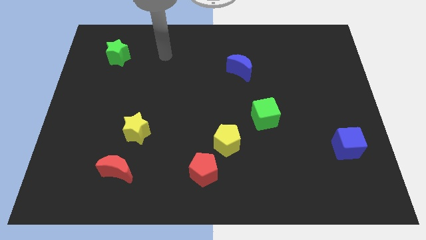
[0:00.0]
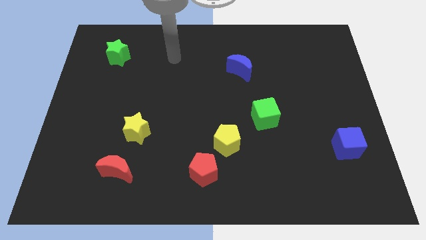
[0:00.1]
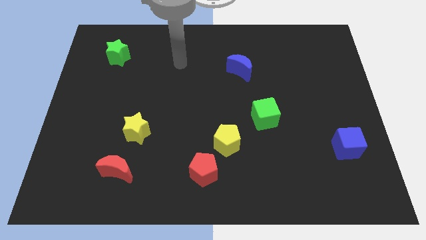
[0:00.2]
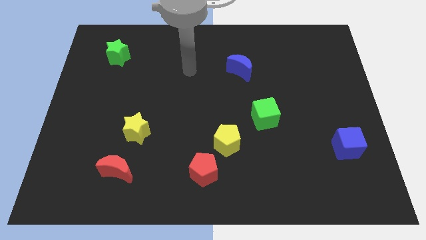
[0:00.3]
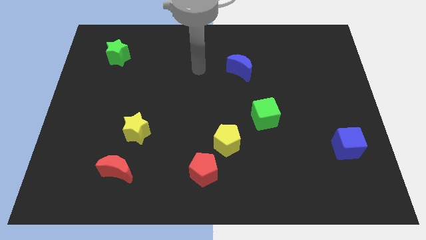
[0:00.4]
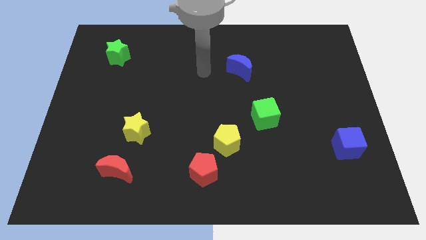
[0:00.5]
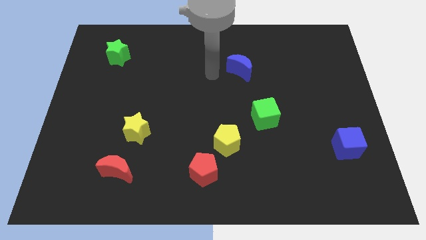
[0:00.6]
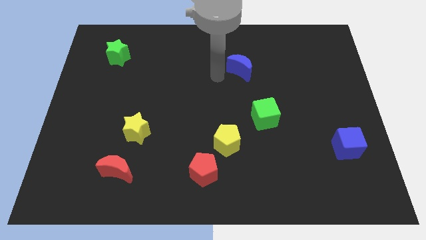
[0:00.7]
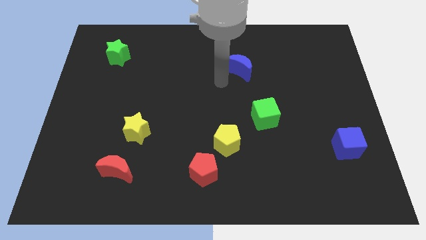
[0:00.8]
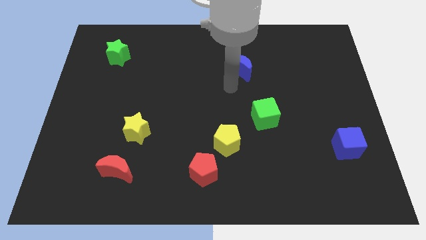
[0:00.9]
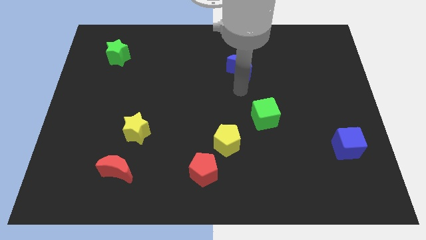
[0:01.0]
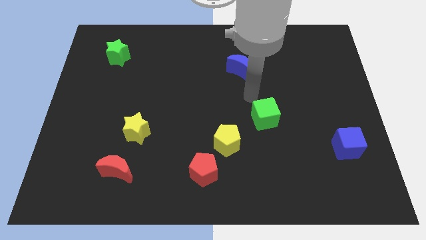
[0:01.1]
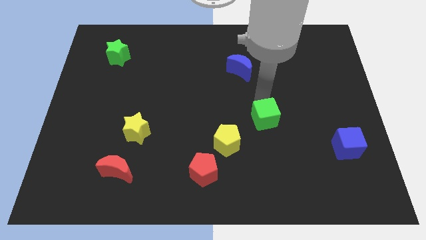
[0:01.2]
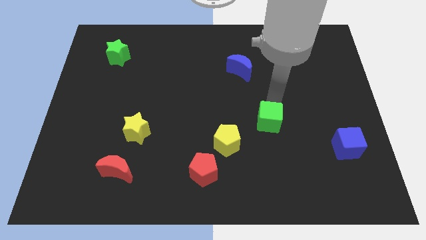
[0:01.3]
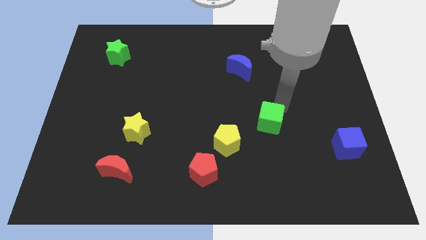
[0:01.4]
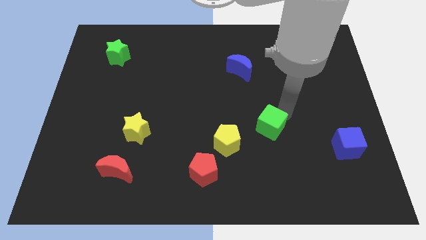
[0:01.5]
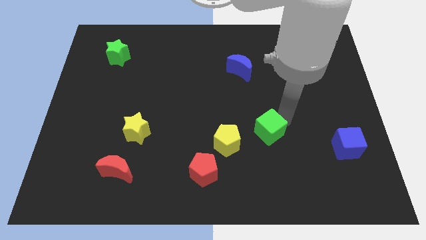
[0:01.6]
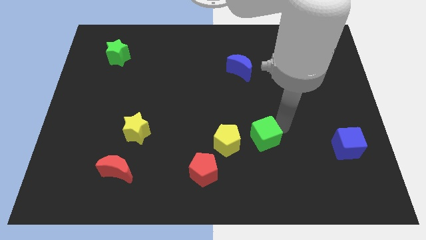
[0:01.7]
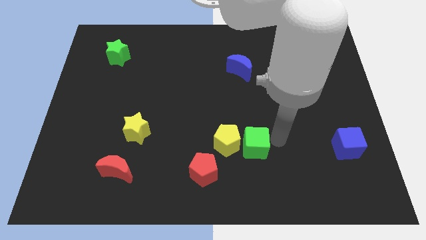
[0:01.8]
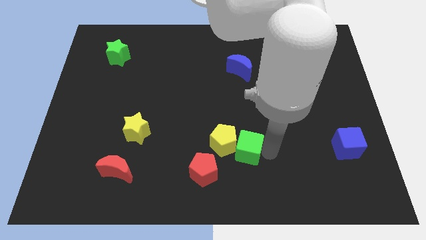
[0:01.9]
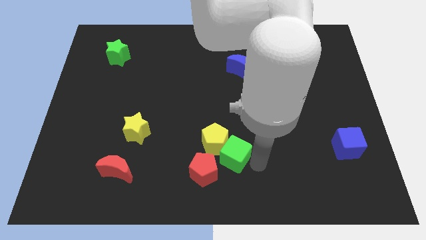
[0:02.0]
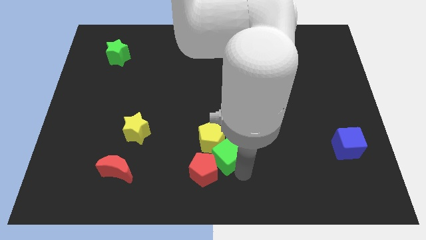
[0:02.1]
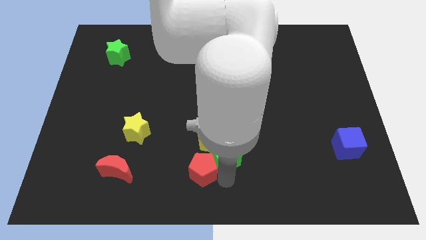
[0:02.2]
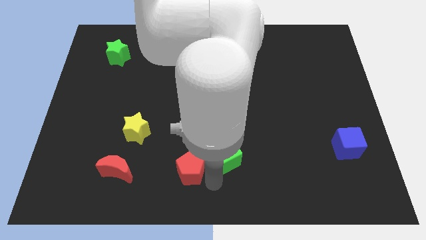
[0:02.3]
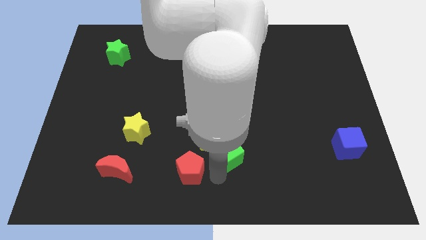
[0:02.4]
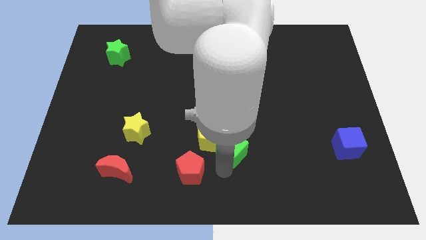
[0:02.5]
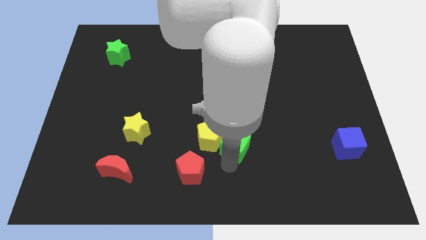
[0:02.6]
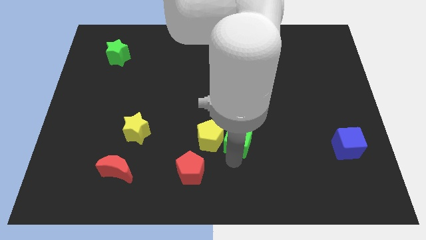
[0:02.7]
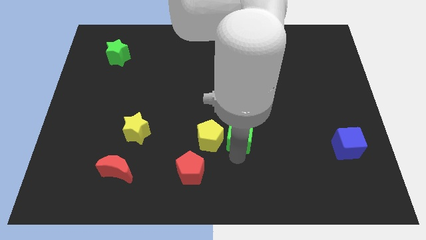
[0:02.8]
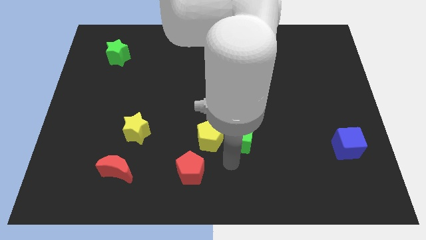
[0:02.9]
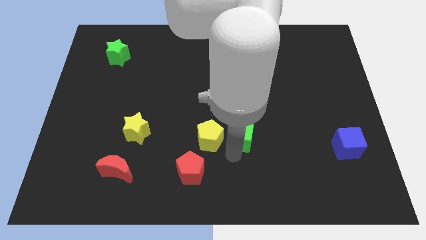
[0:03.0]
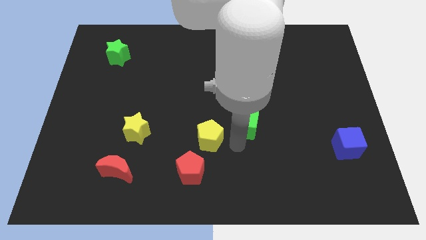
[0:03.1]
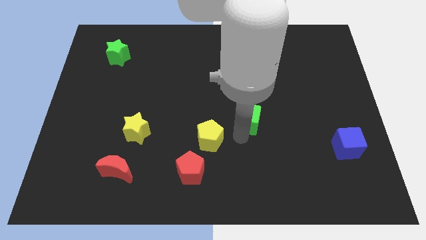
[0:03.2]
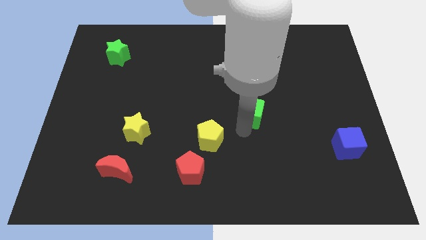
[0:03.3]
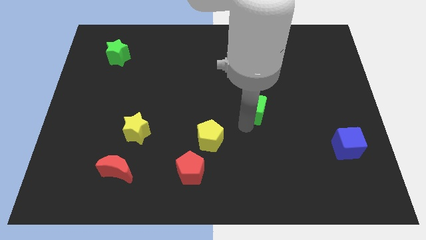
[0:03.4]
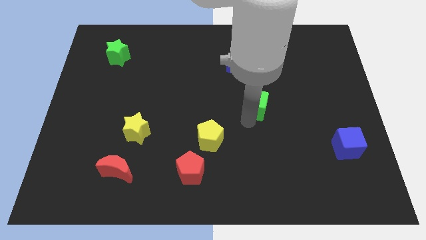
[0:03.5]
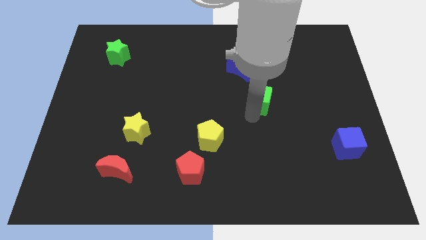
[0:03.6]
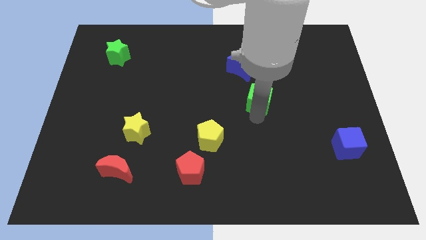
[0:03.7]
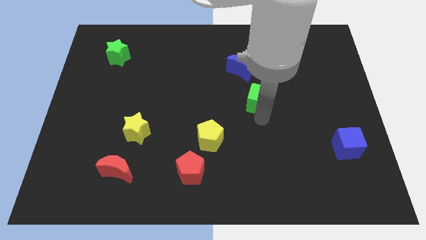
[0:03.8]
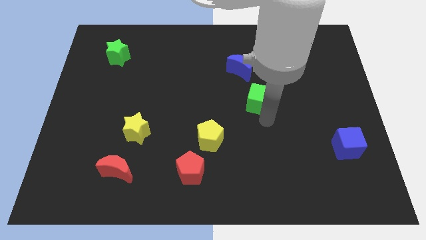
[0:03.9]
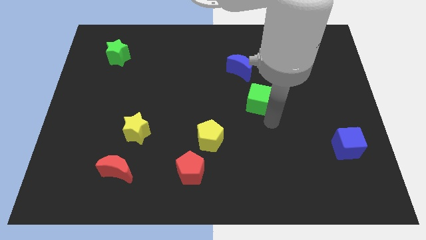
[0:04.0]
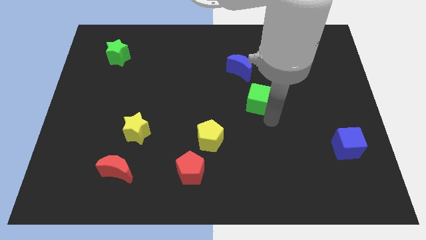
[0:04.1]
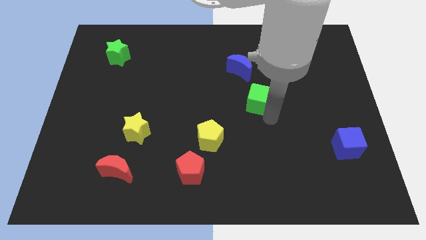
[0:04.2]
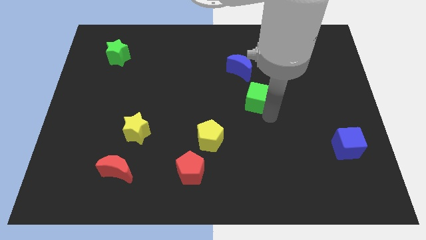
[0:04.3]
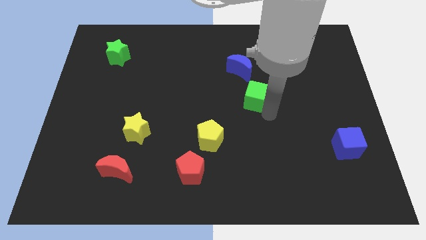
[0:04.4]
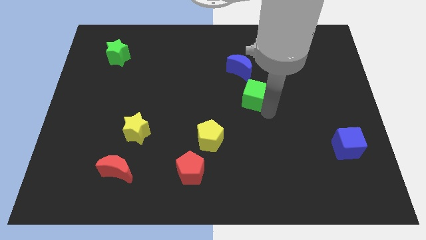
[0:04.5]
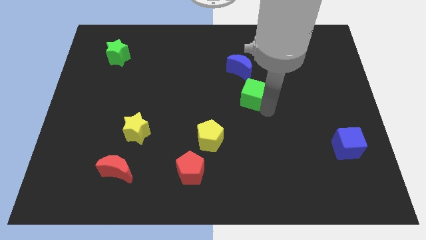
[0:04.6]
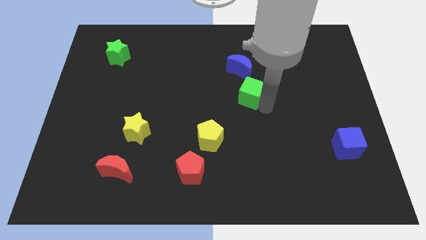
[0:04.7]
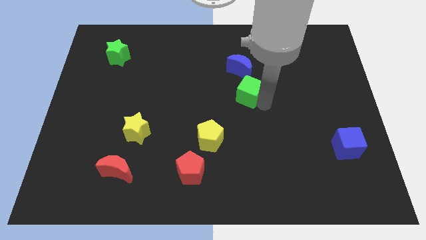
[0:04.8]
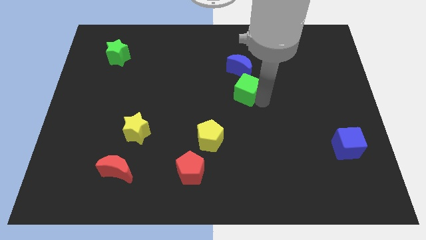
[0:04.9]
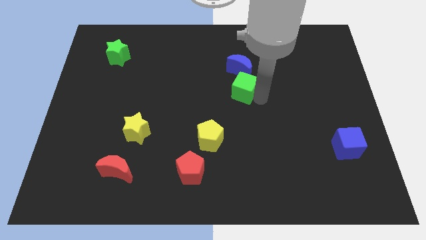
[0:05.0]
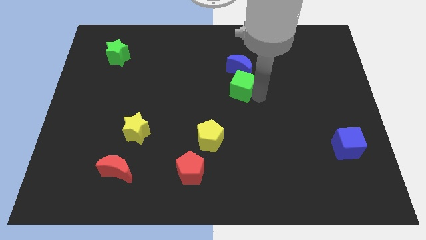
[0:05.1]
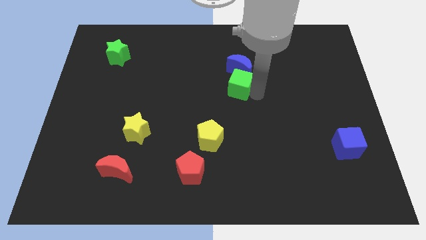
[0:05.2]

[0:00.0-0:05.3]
push the green cube towards the blue moon

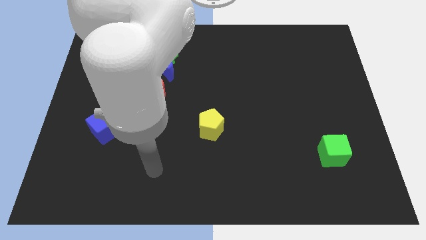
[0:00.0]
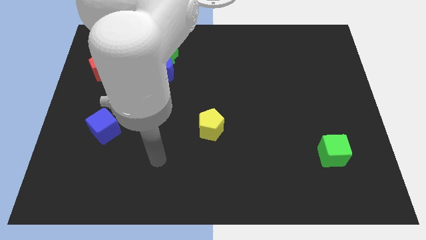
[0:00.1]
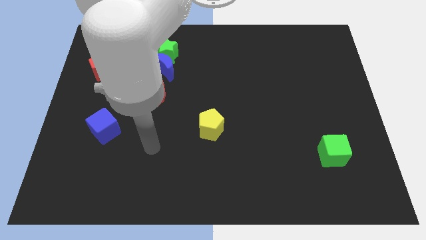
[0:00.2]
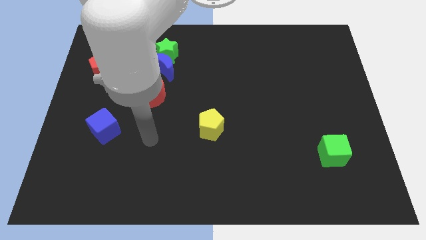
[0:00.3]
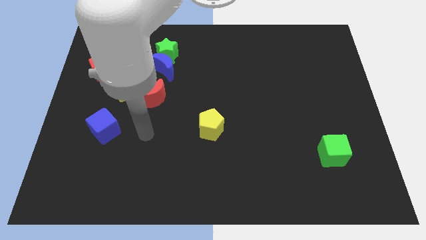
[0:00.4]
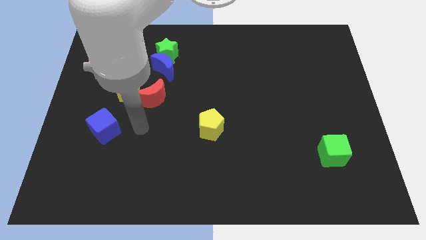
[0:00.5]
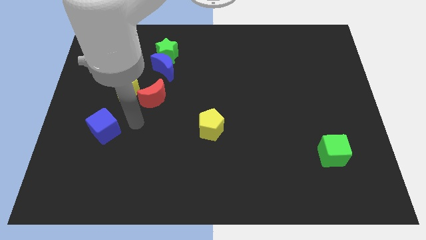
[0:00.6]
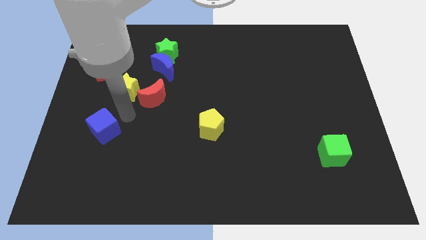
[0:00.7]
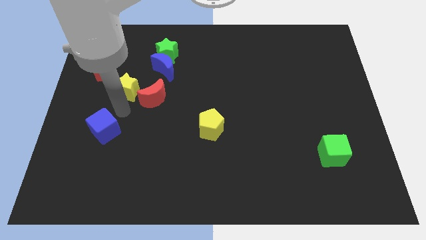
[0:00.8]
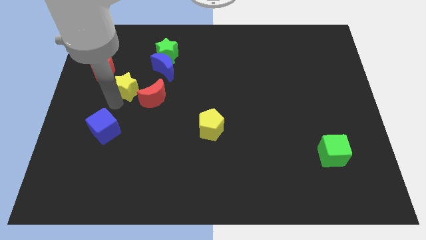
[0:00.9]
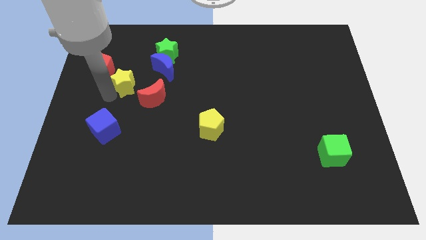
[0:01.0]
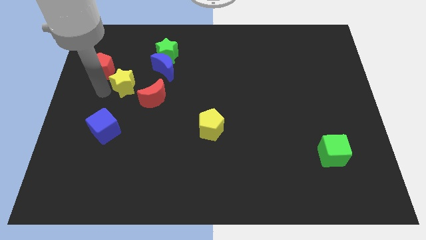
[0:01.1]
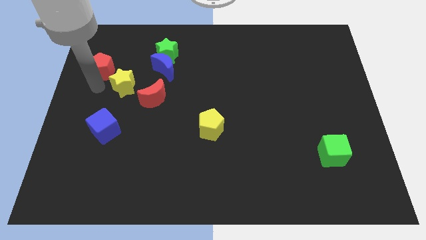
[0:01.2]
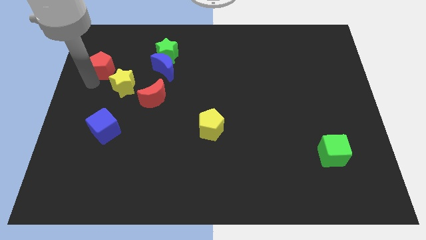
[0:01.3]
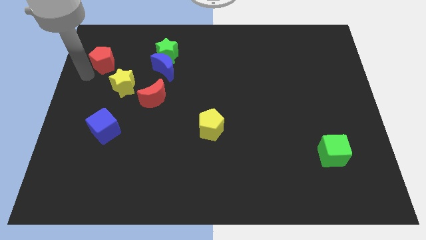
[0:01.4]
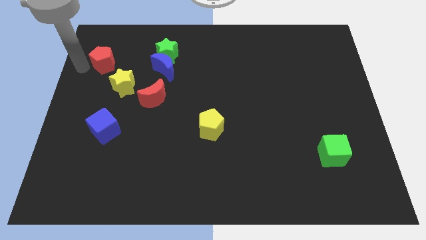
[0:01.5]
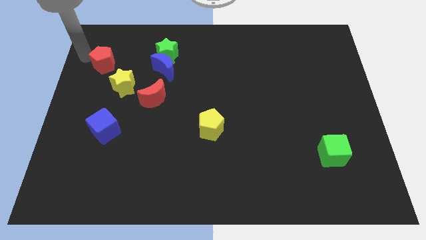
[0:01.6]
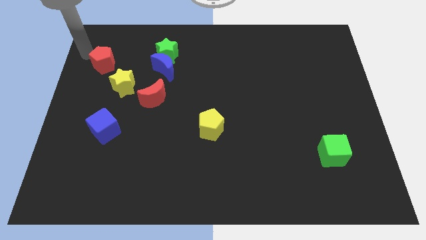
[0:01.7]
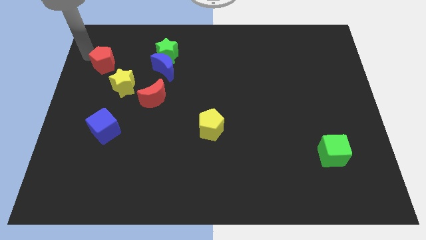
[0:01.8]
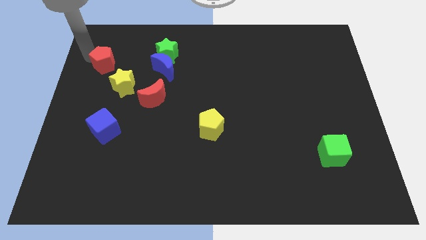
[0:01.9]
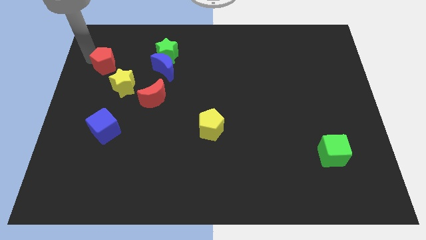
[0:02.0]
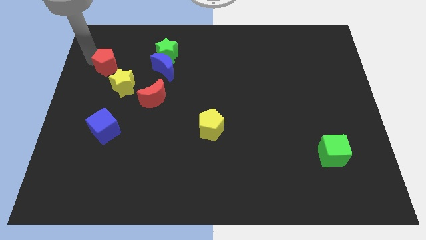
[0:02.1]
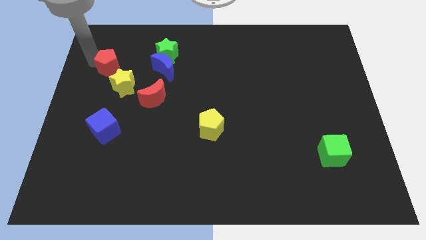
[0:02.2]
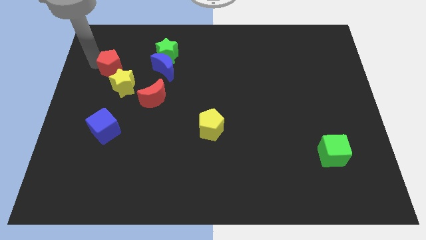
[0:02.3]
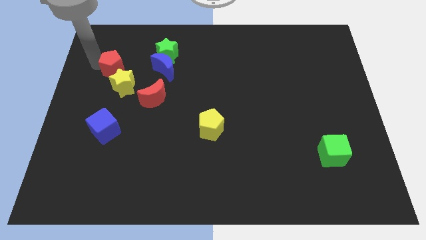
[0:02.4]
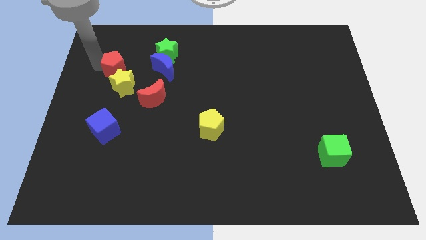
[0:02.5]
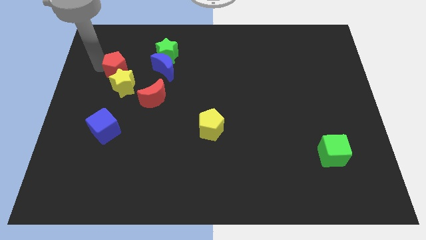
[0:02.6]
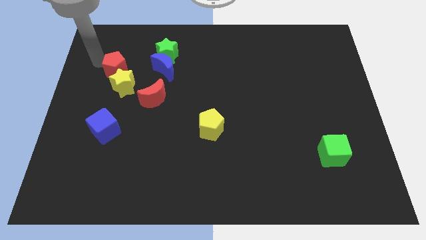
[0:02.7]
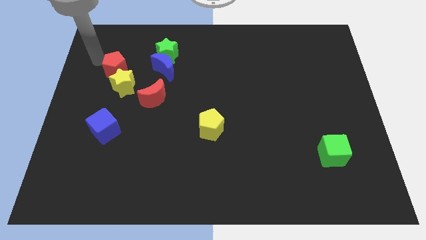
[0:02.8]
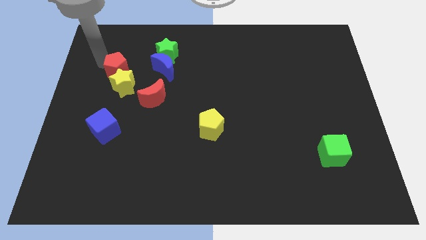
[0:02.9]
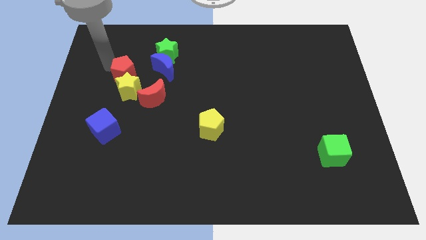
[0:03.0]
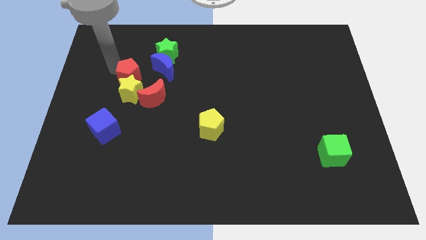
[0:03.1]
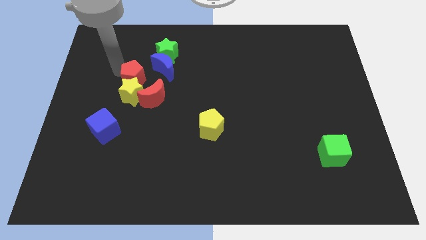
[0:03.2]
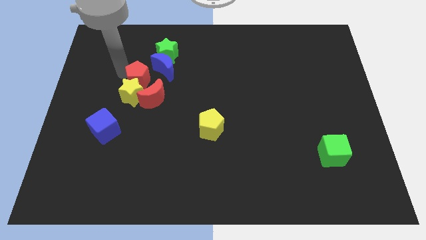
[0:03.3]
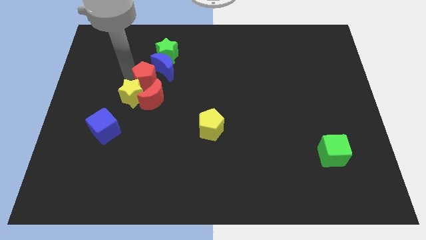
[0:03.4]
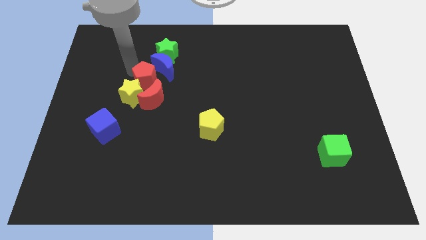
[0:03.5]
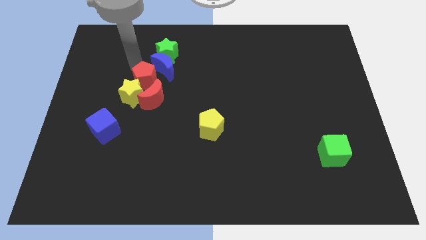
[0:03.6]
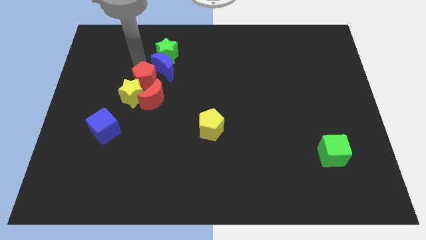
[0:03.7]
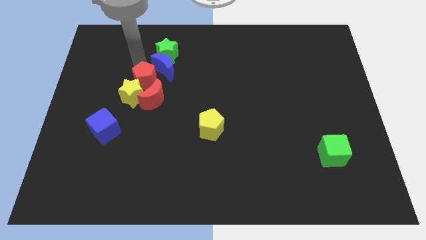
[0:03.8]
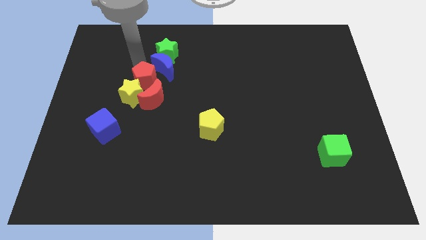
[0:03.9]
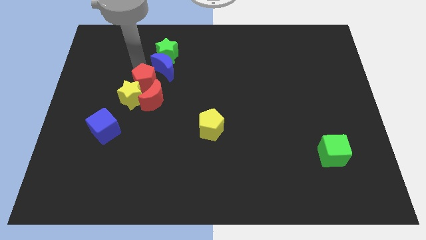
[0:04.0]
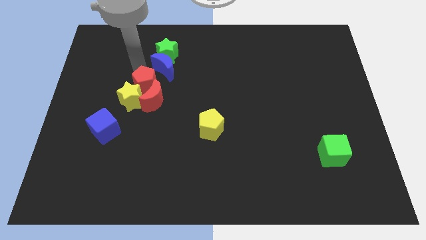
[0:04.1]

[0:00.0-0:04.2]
put the red pentagon to the red moon
